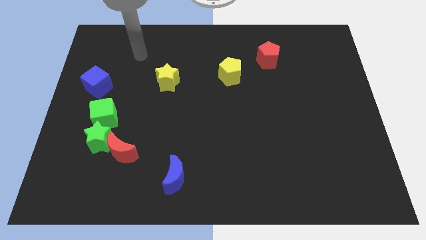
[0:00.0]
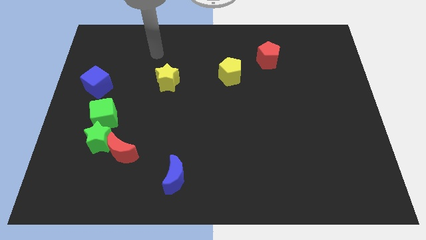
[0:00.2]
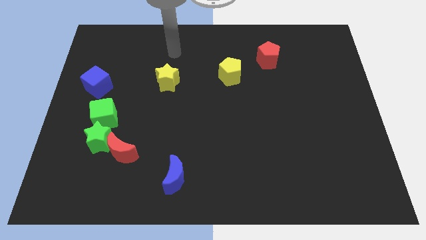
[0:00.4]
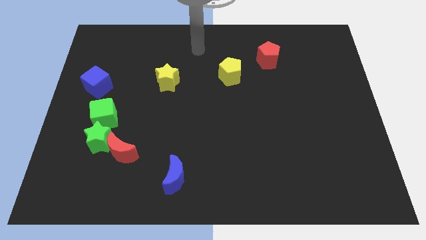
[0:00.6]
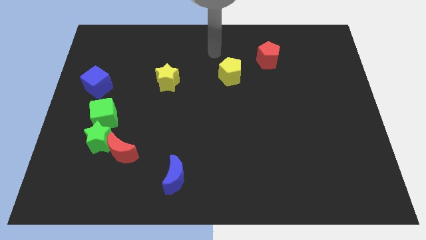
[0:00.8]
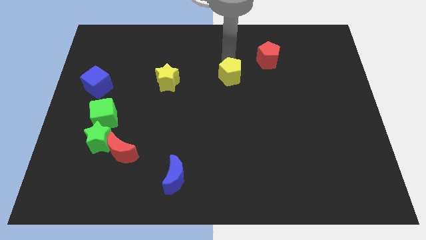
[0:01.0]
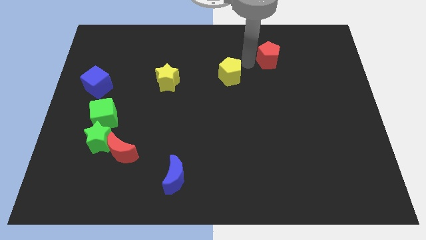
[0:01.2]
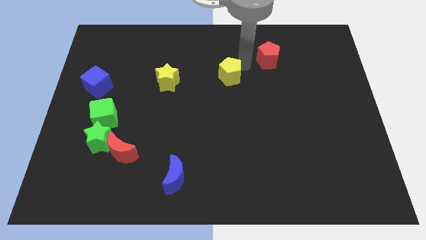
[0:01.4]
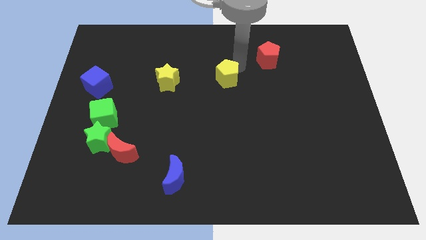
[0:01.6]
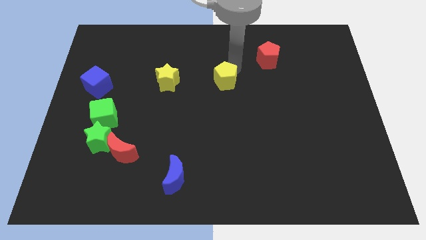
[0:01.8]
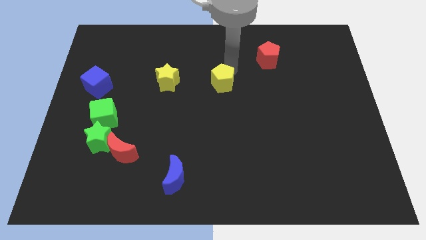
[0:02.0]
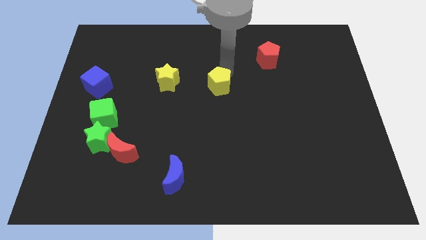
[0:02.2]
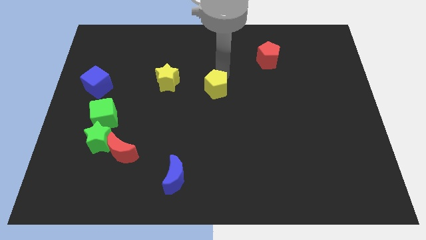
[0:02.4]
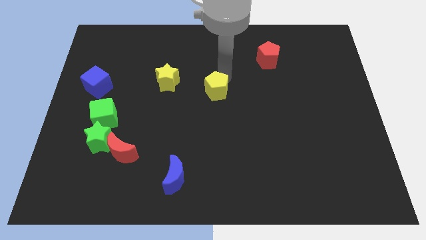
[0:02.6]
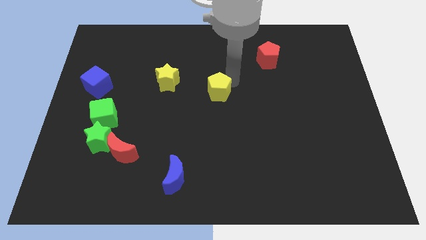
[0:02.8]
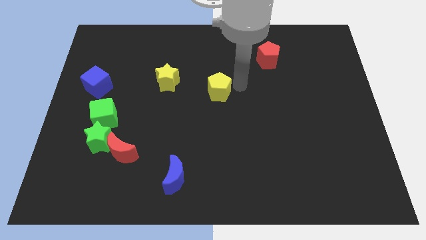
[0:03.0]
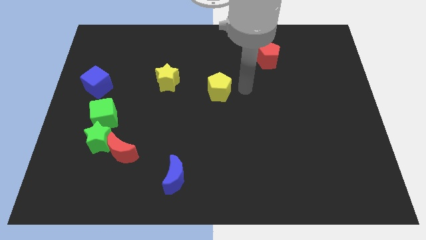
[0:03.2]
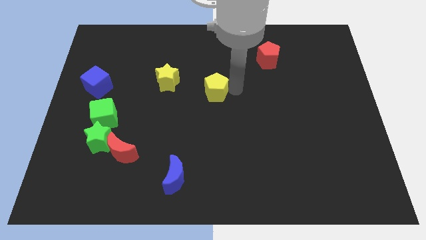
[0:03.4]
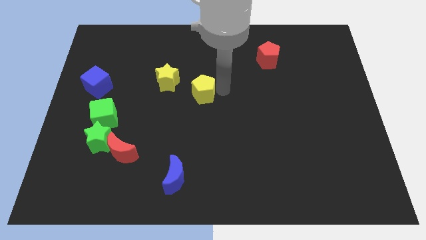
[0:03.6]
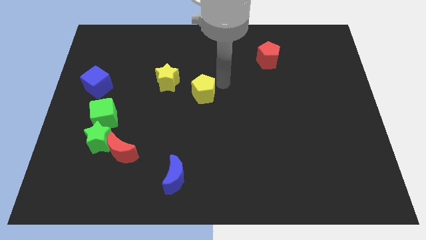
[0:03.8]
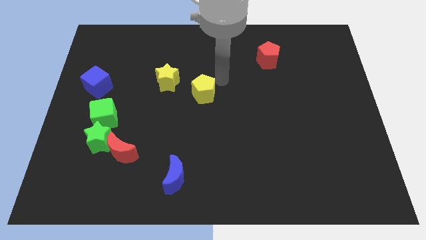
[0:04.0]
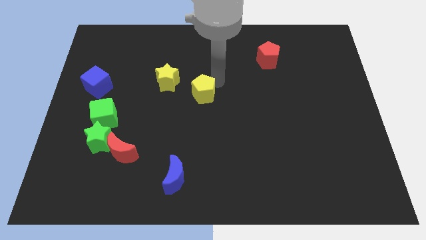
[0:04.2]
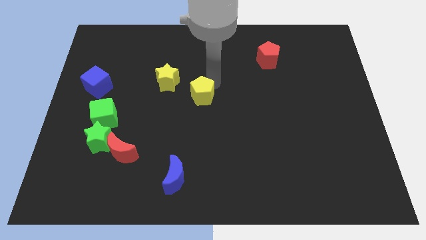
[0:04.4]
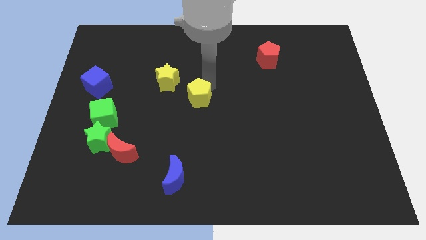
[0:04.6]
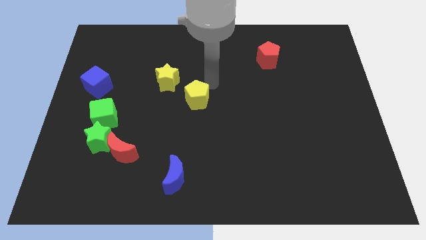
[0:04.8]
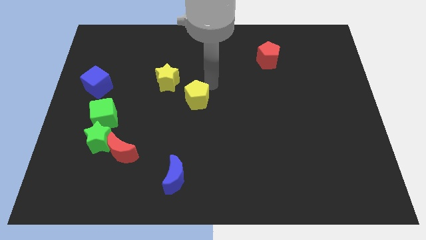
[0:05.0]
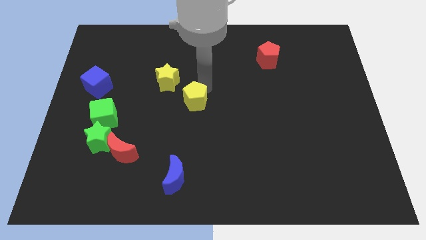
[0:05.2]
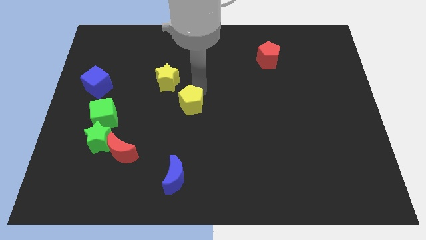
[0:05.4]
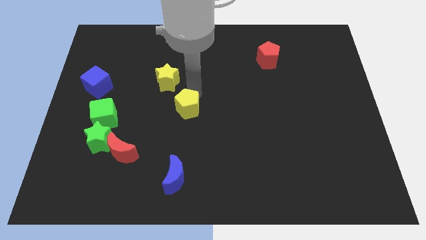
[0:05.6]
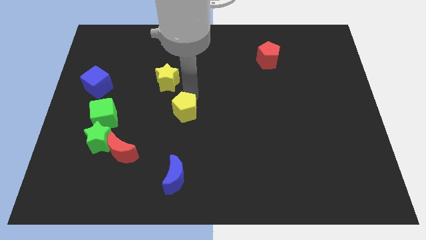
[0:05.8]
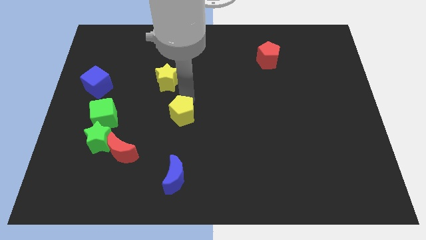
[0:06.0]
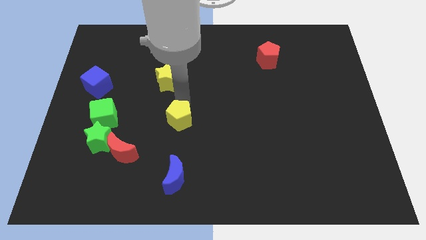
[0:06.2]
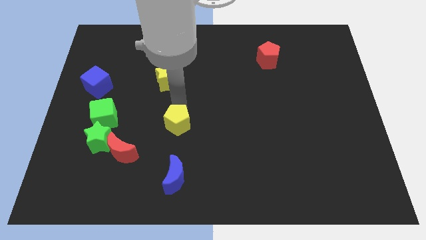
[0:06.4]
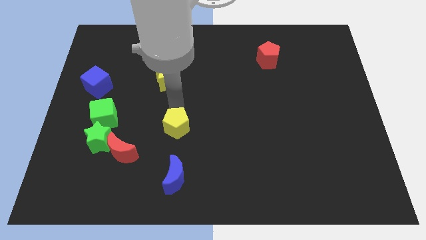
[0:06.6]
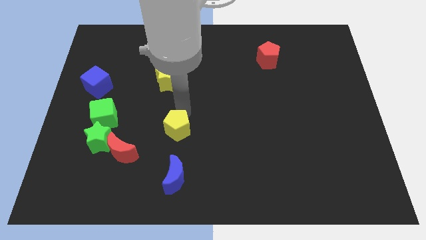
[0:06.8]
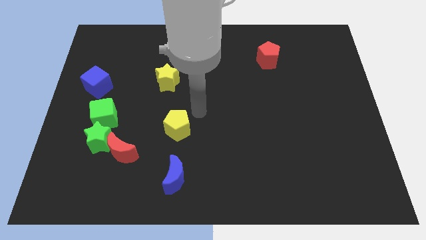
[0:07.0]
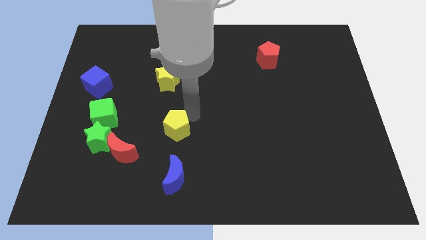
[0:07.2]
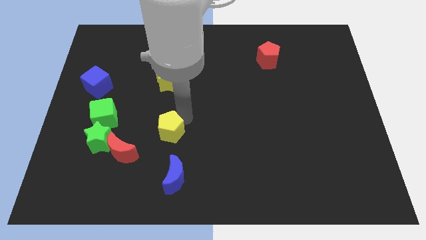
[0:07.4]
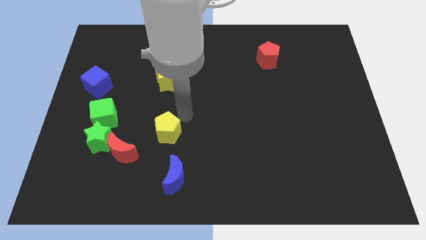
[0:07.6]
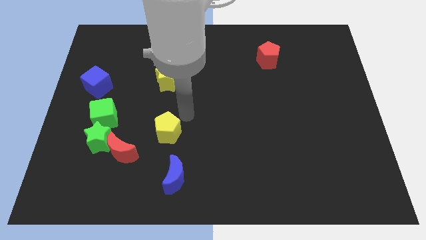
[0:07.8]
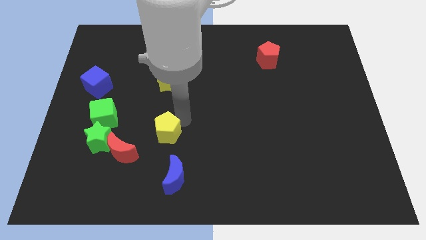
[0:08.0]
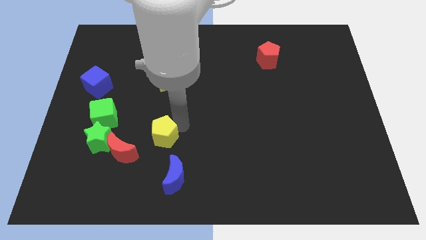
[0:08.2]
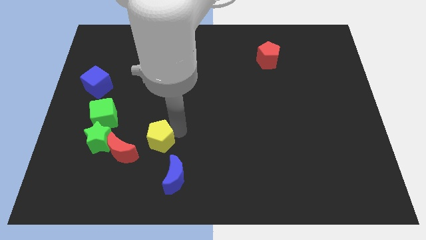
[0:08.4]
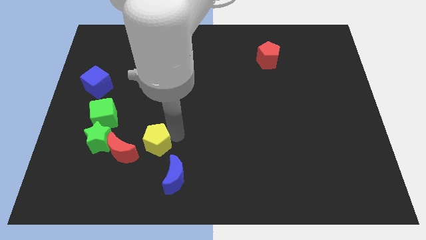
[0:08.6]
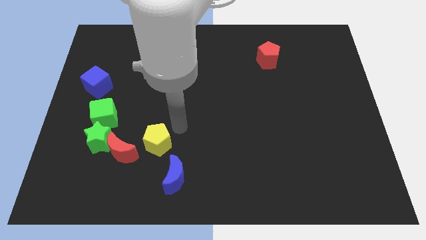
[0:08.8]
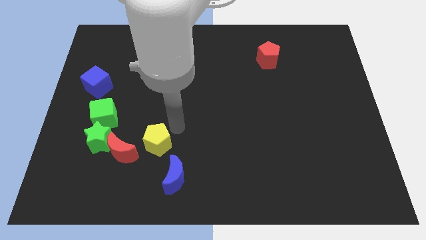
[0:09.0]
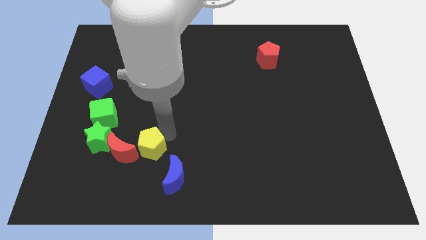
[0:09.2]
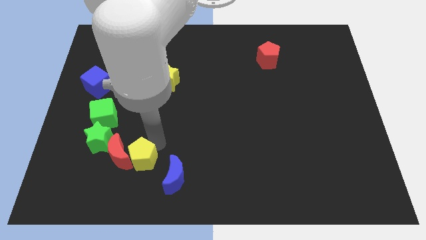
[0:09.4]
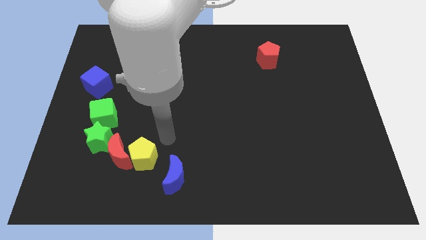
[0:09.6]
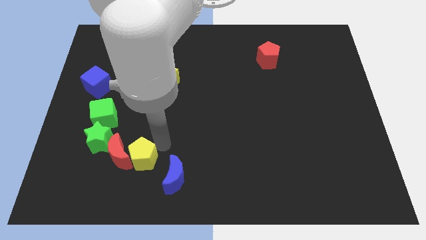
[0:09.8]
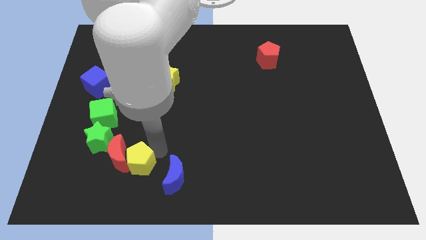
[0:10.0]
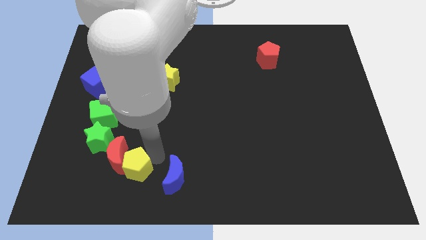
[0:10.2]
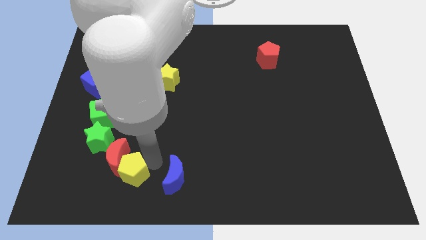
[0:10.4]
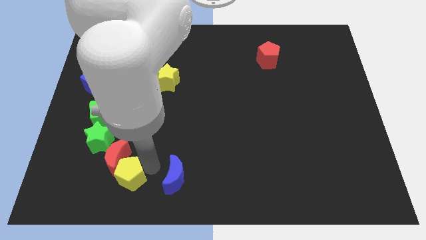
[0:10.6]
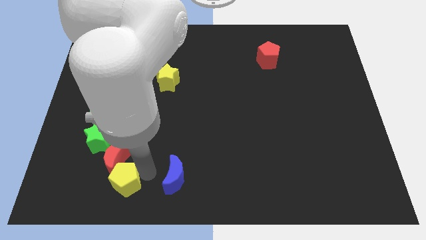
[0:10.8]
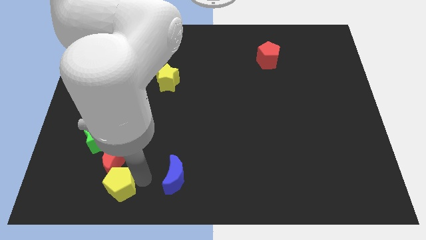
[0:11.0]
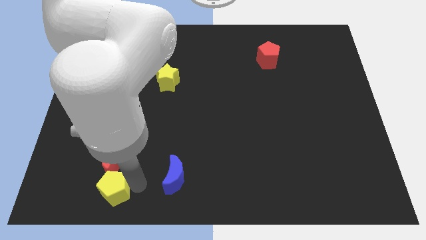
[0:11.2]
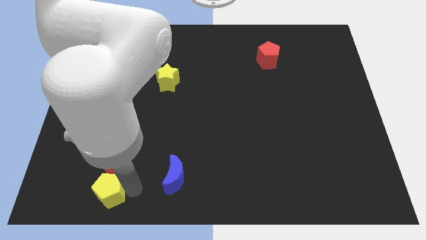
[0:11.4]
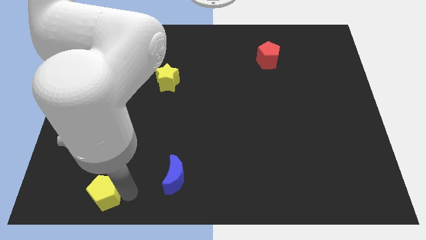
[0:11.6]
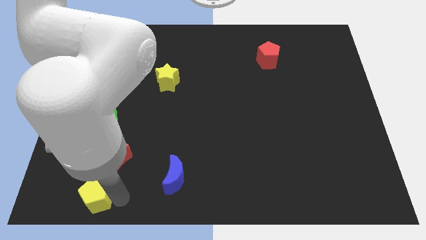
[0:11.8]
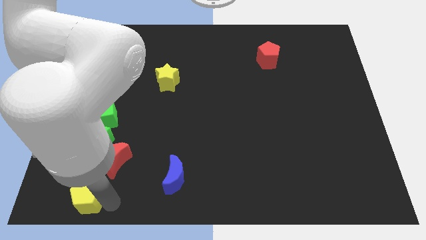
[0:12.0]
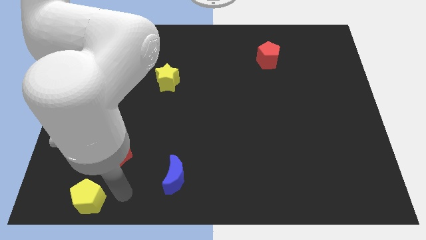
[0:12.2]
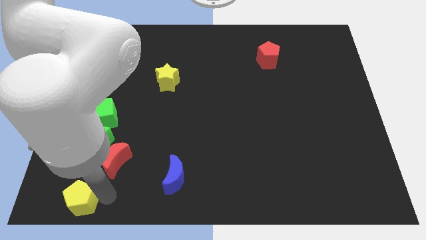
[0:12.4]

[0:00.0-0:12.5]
slide the yellow pentagon to the bottom left corner
